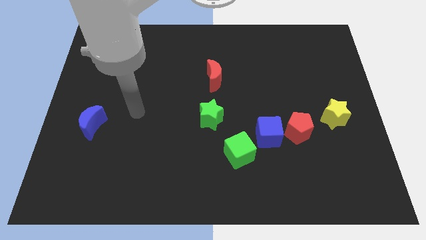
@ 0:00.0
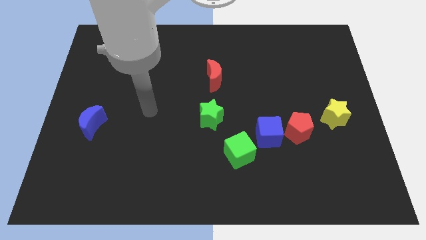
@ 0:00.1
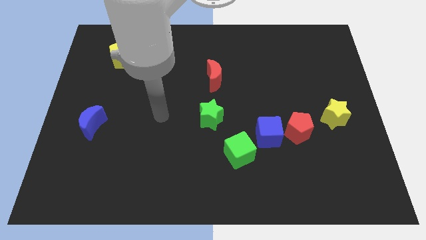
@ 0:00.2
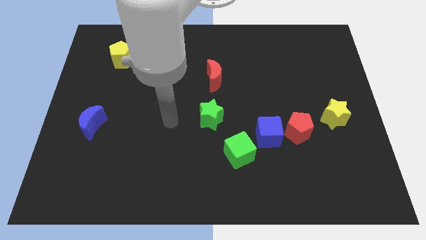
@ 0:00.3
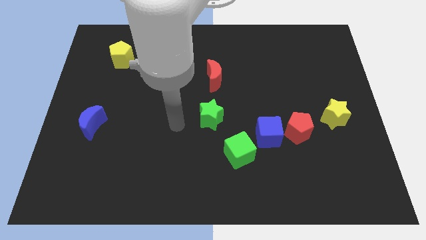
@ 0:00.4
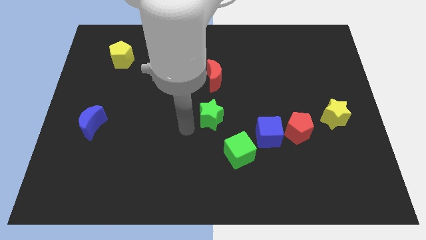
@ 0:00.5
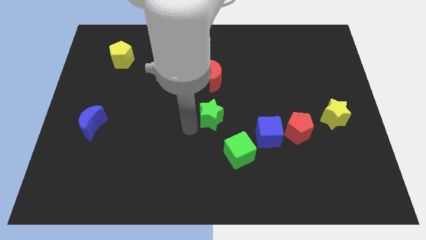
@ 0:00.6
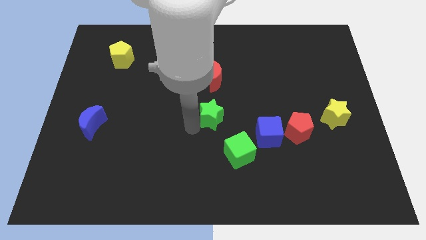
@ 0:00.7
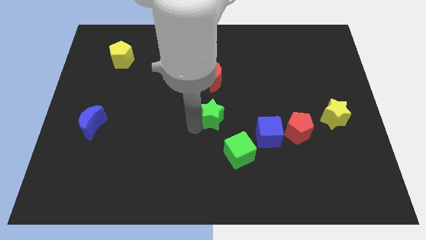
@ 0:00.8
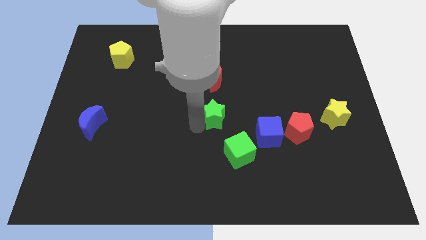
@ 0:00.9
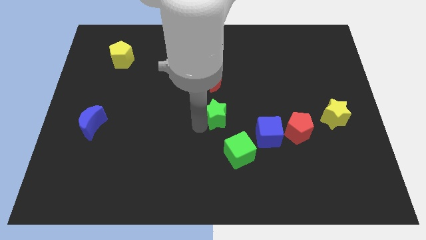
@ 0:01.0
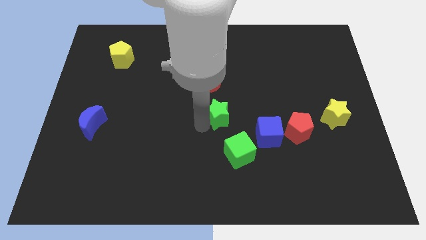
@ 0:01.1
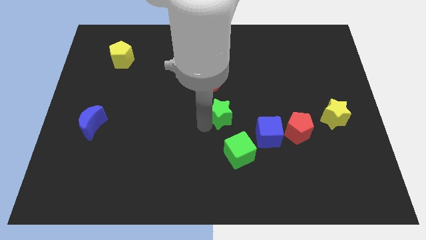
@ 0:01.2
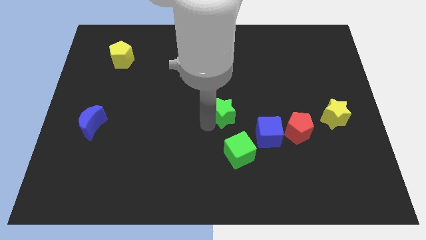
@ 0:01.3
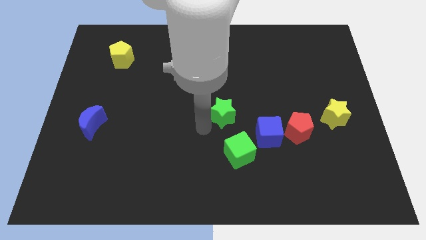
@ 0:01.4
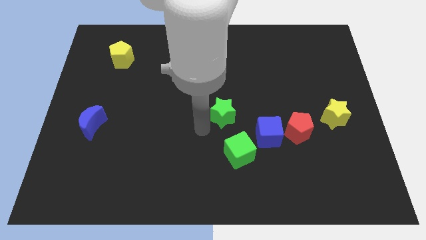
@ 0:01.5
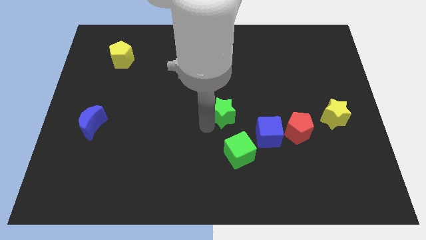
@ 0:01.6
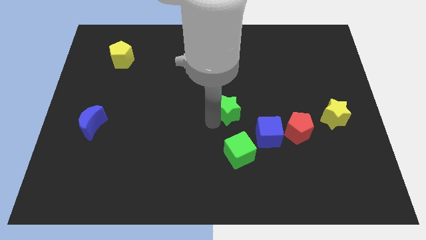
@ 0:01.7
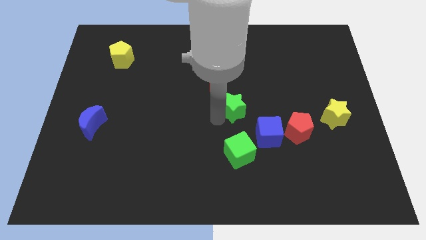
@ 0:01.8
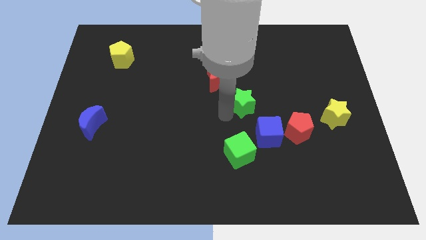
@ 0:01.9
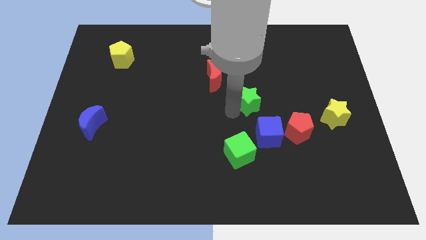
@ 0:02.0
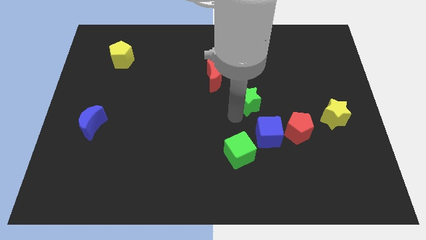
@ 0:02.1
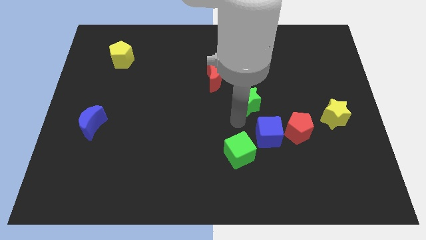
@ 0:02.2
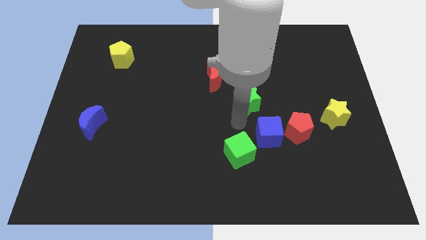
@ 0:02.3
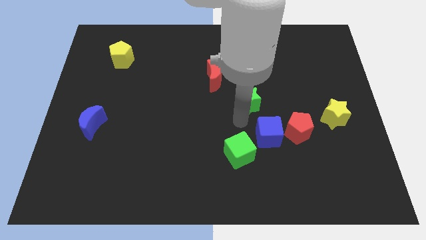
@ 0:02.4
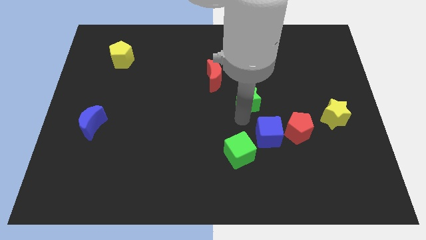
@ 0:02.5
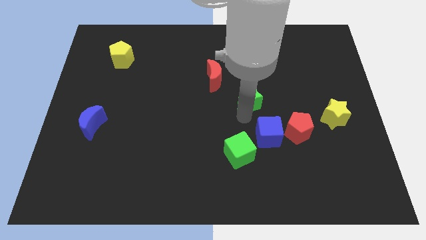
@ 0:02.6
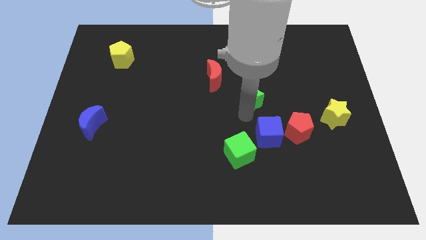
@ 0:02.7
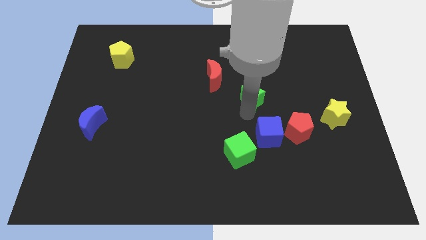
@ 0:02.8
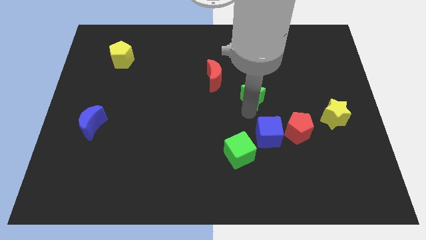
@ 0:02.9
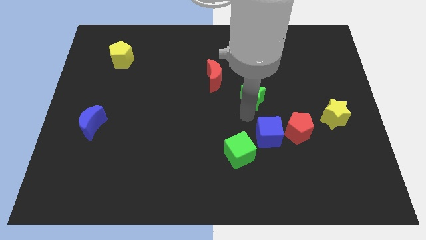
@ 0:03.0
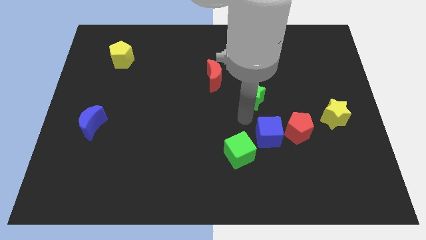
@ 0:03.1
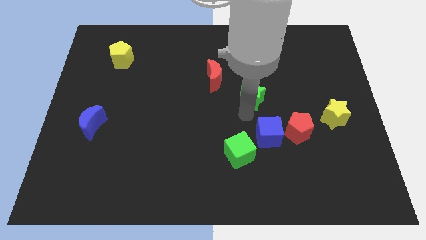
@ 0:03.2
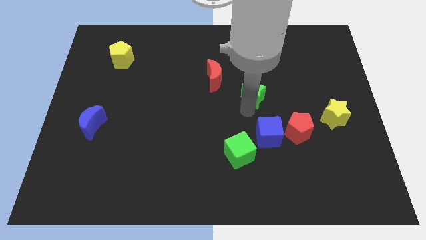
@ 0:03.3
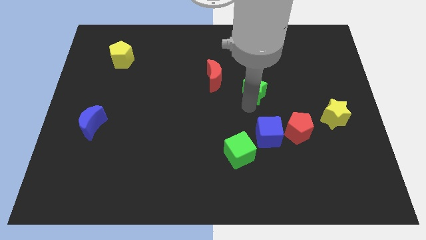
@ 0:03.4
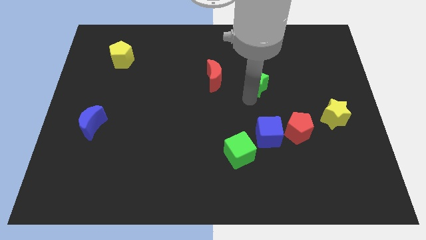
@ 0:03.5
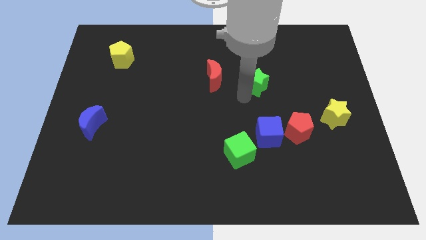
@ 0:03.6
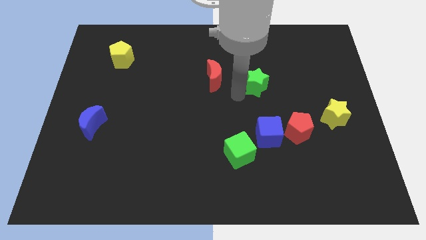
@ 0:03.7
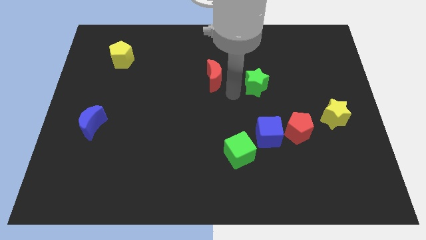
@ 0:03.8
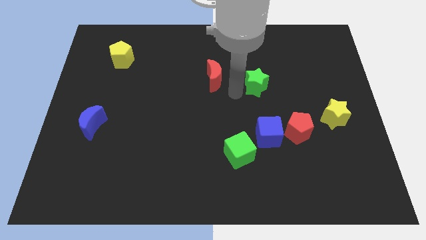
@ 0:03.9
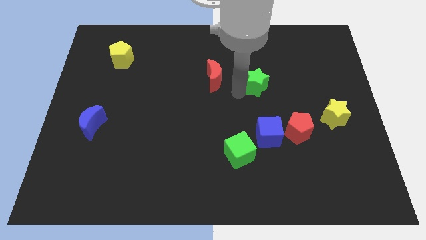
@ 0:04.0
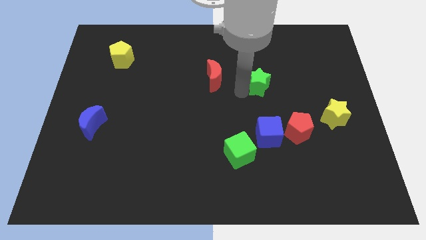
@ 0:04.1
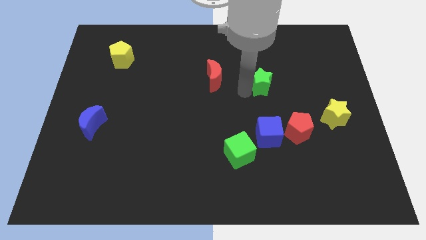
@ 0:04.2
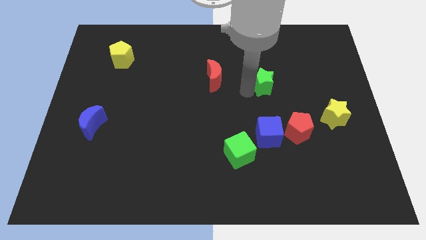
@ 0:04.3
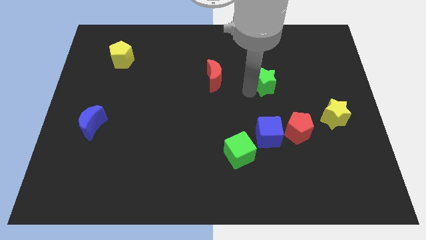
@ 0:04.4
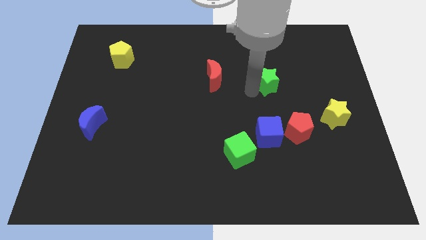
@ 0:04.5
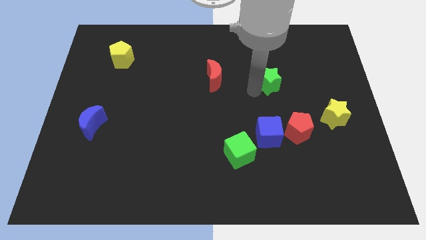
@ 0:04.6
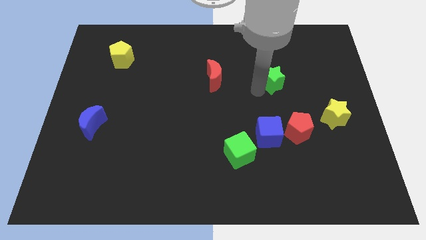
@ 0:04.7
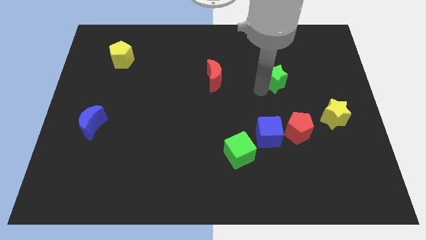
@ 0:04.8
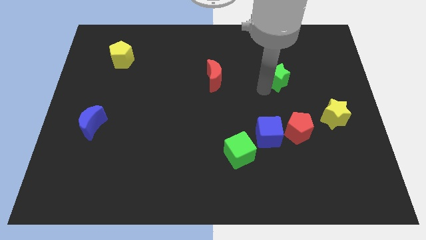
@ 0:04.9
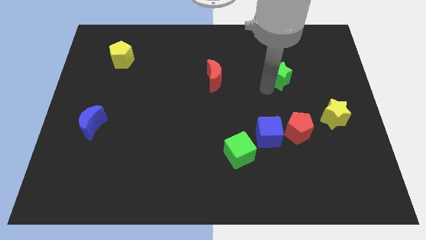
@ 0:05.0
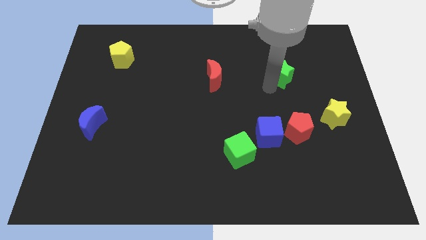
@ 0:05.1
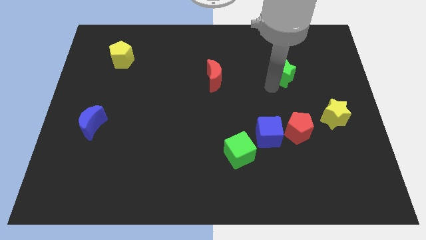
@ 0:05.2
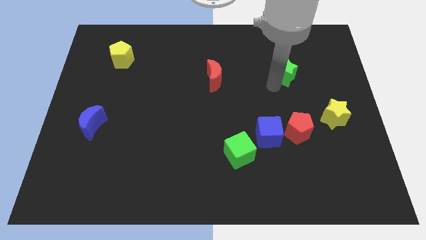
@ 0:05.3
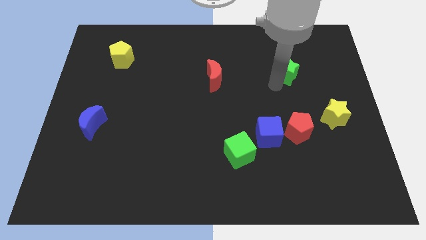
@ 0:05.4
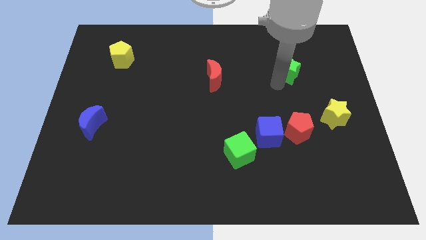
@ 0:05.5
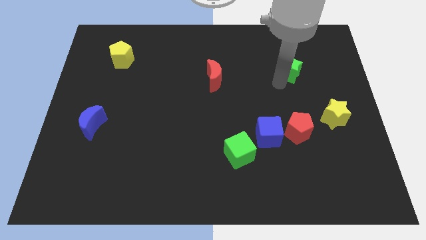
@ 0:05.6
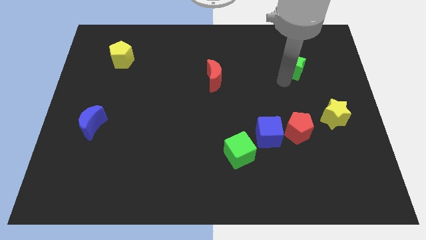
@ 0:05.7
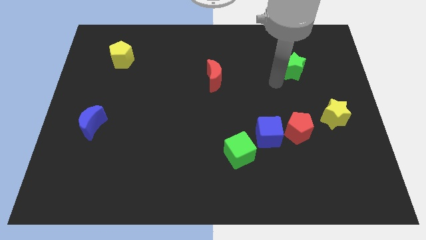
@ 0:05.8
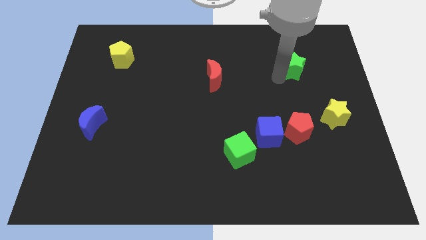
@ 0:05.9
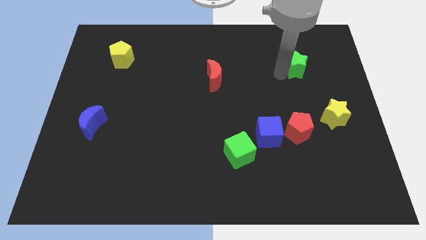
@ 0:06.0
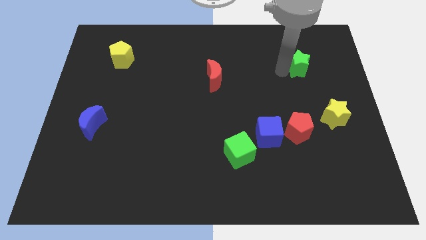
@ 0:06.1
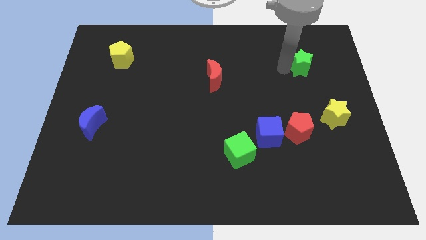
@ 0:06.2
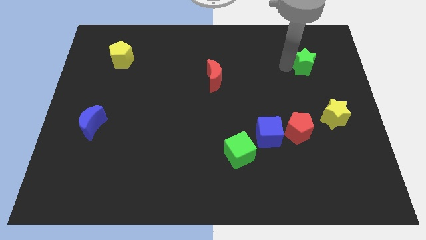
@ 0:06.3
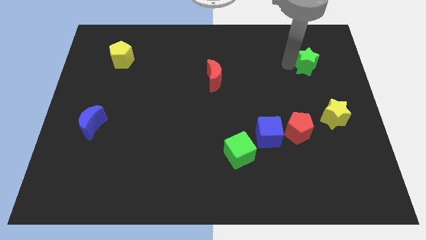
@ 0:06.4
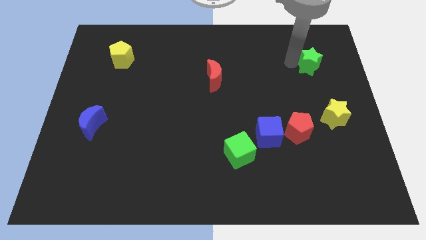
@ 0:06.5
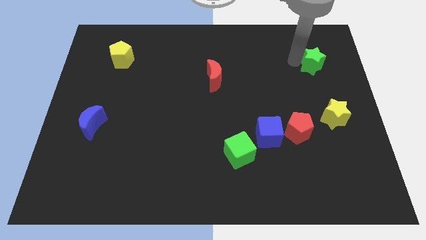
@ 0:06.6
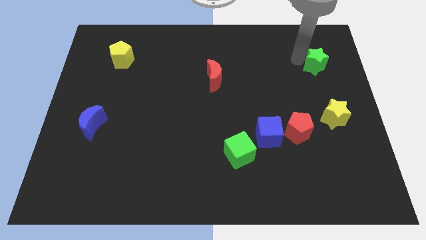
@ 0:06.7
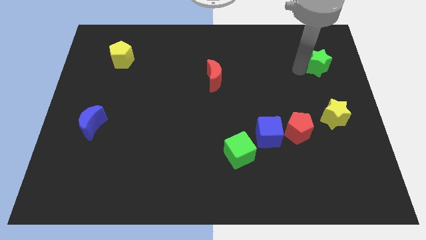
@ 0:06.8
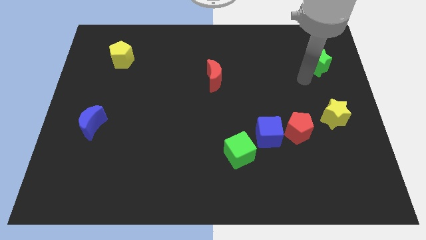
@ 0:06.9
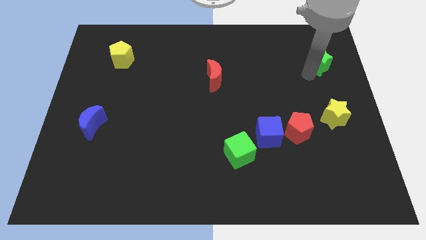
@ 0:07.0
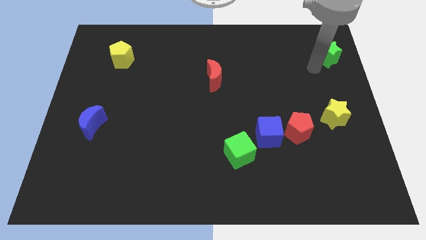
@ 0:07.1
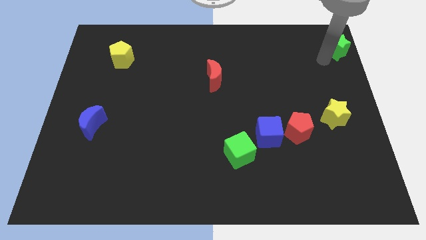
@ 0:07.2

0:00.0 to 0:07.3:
slide the green star to the upper right corner

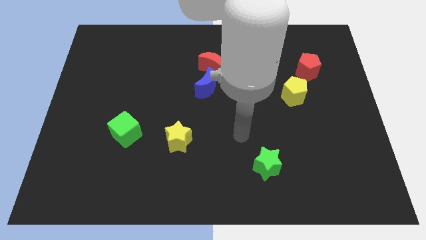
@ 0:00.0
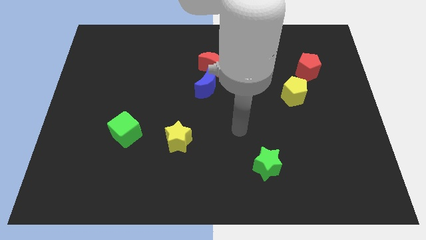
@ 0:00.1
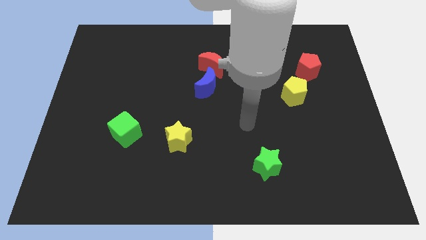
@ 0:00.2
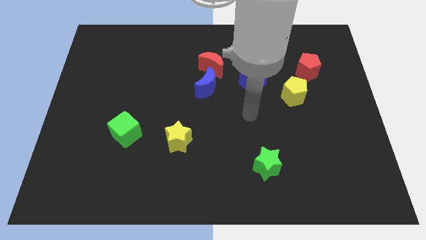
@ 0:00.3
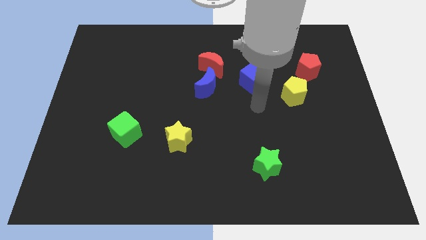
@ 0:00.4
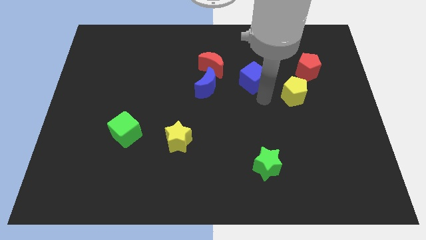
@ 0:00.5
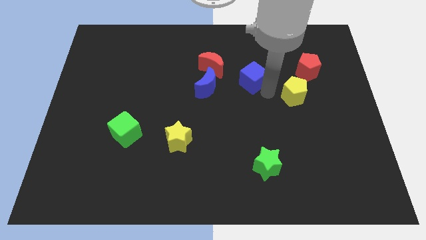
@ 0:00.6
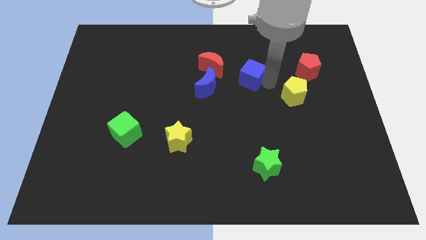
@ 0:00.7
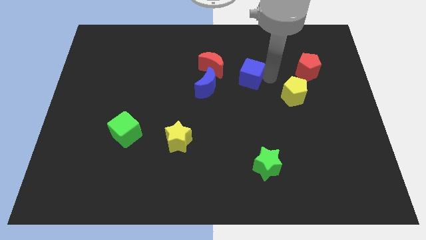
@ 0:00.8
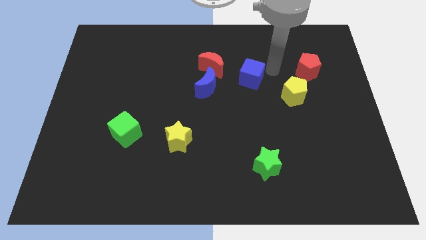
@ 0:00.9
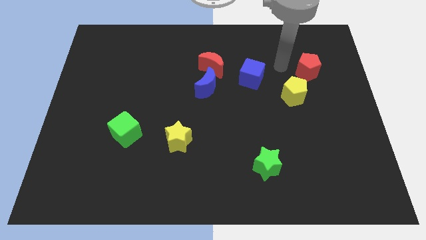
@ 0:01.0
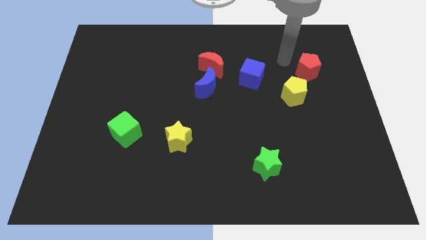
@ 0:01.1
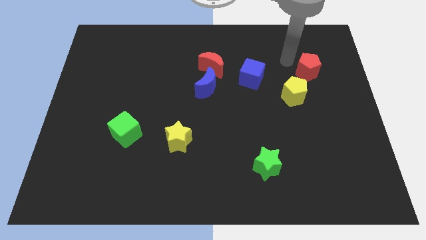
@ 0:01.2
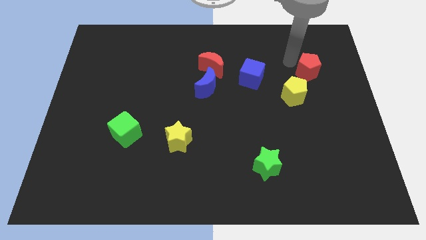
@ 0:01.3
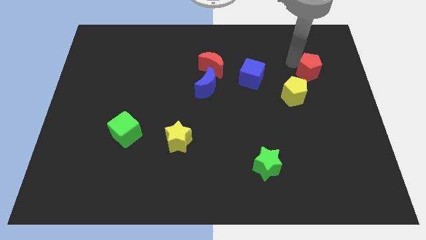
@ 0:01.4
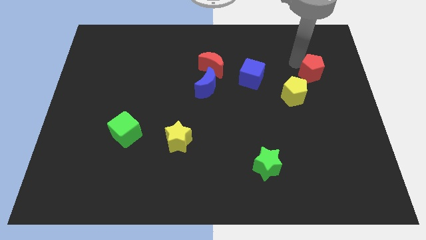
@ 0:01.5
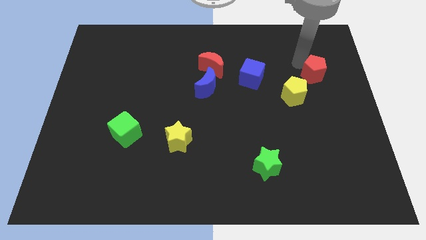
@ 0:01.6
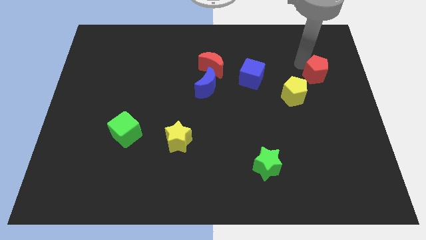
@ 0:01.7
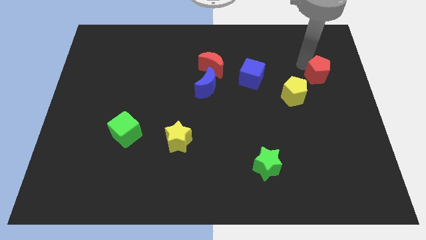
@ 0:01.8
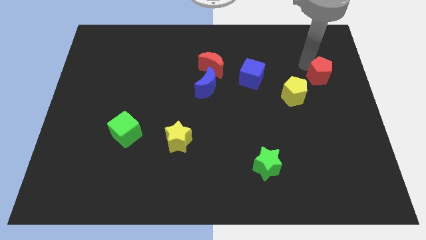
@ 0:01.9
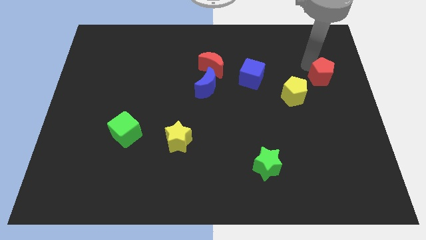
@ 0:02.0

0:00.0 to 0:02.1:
put the red pentagon to the right side
